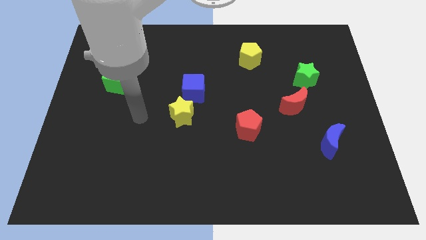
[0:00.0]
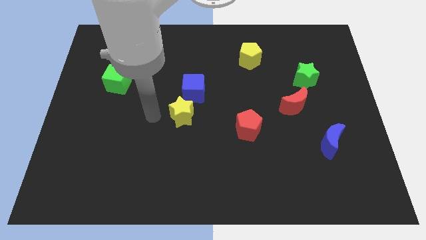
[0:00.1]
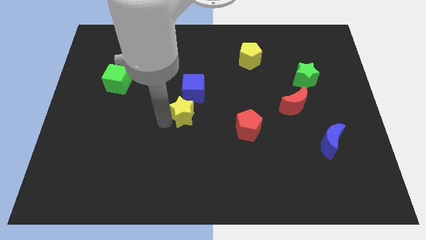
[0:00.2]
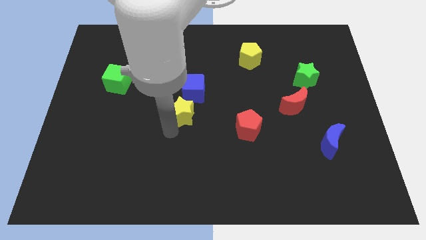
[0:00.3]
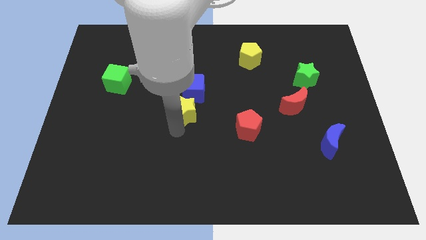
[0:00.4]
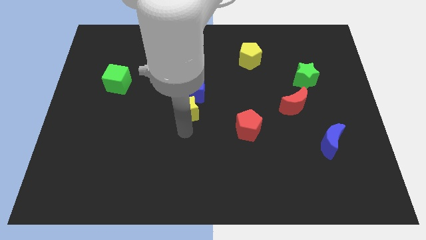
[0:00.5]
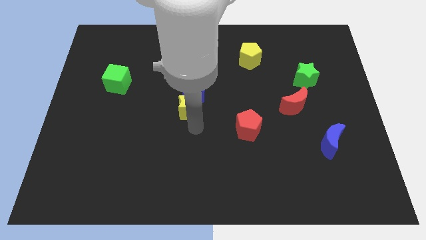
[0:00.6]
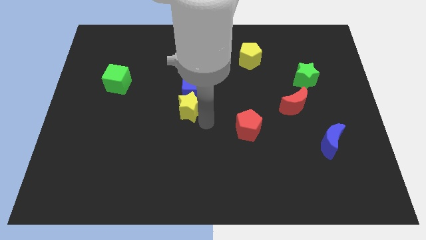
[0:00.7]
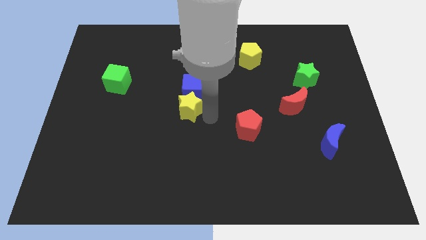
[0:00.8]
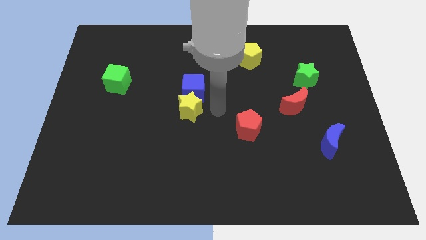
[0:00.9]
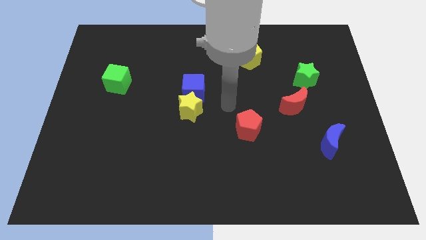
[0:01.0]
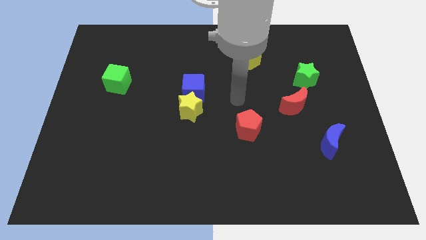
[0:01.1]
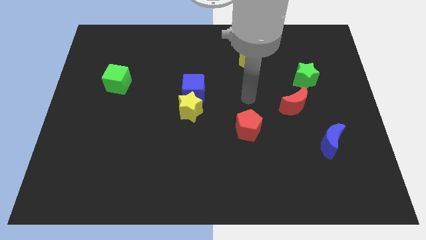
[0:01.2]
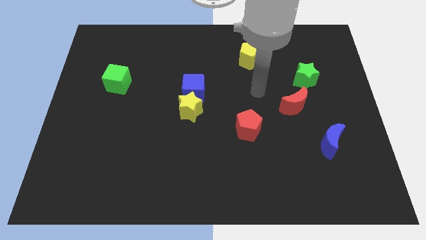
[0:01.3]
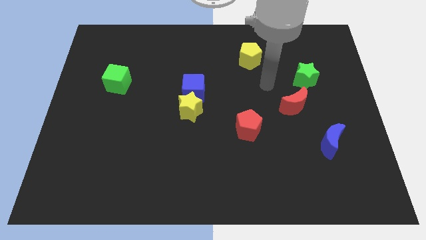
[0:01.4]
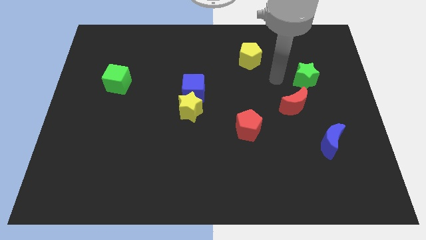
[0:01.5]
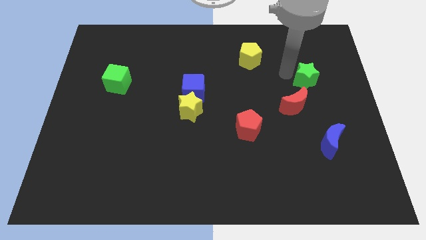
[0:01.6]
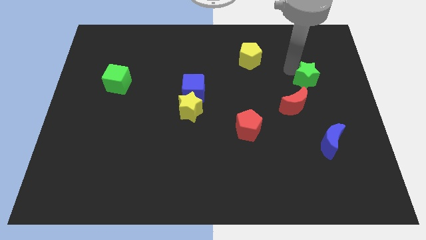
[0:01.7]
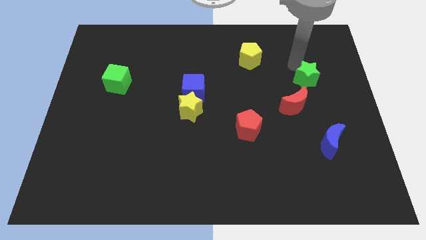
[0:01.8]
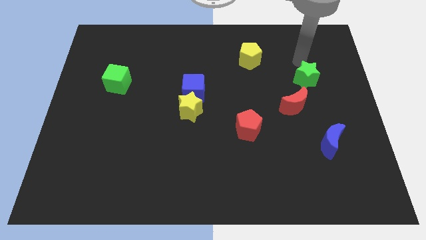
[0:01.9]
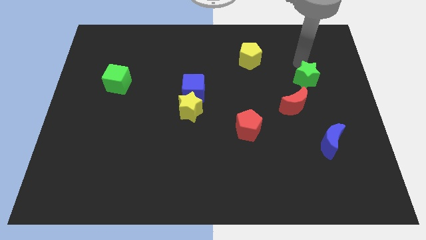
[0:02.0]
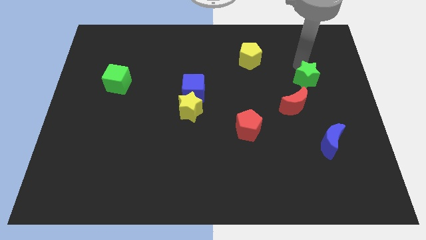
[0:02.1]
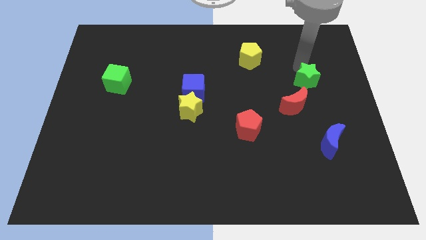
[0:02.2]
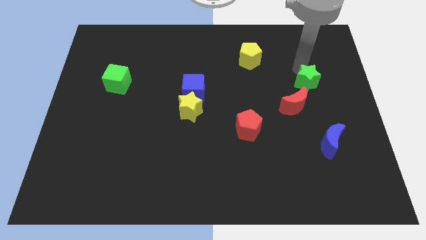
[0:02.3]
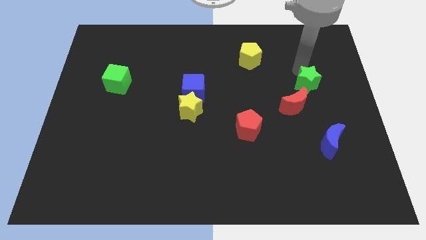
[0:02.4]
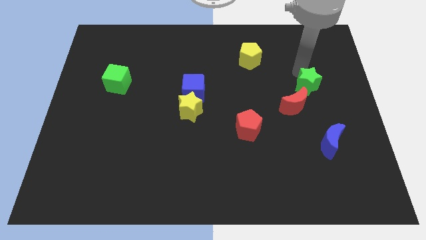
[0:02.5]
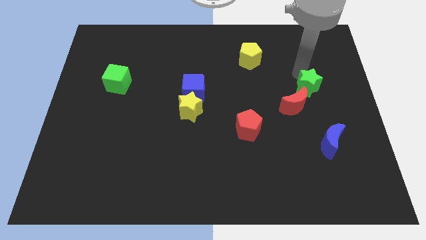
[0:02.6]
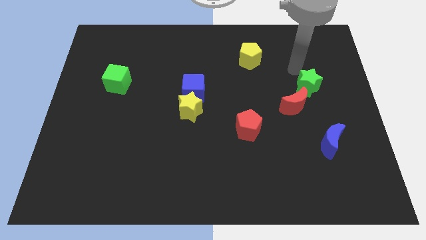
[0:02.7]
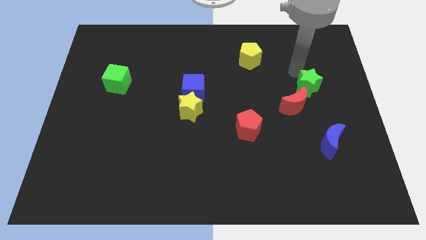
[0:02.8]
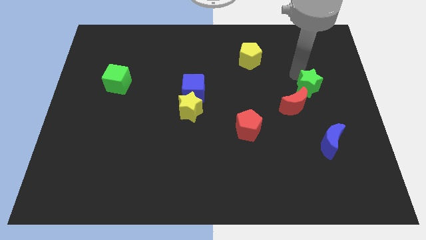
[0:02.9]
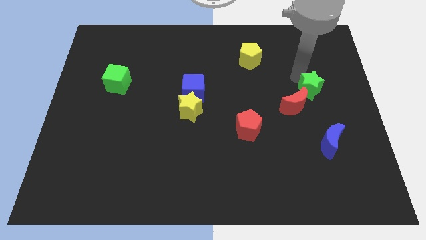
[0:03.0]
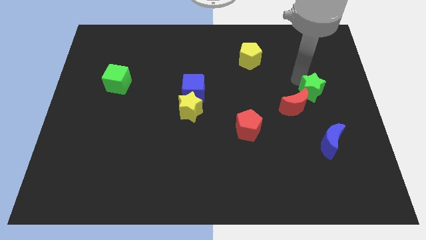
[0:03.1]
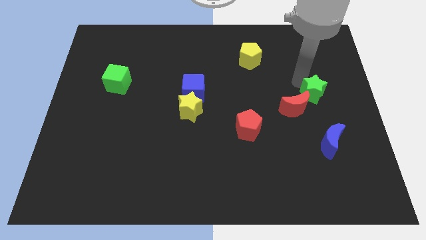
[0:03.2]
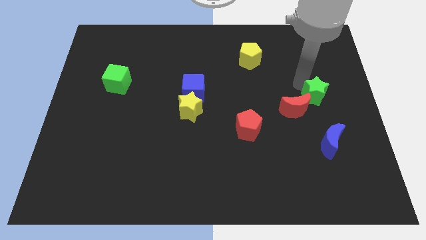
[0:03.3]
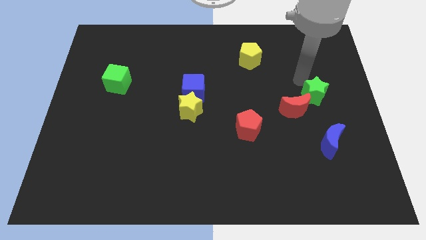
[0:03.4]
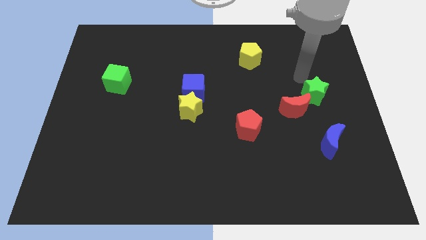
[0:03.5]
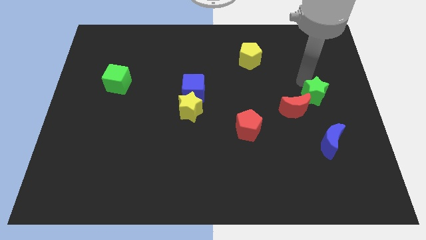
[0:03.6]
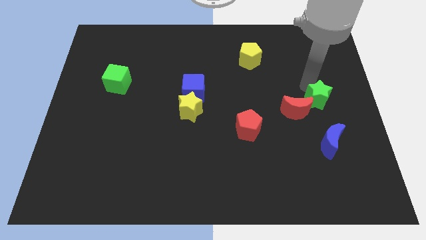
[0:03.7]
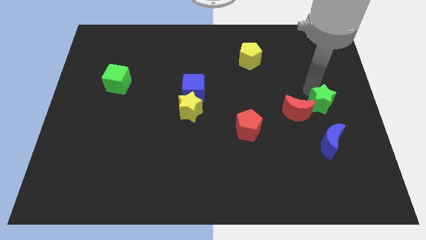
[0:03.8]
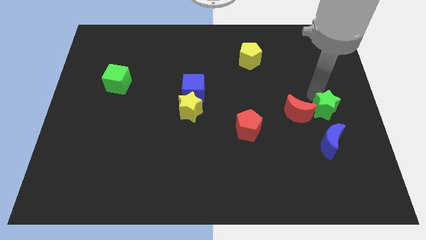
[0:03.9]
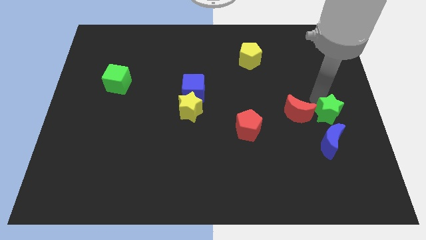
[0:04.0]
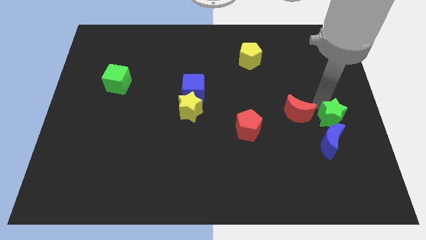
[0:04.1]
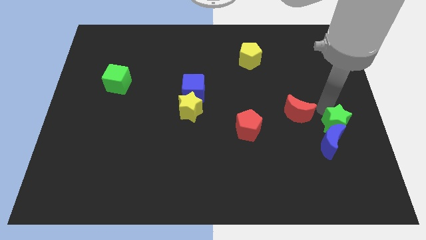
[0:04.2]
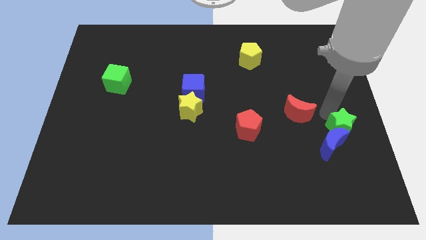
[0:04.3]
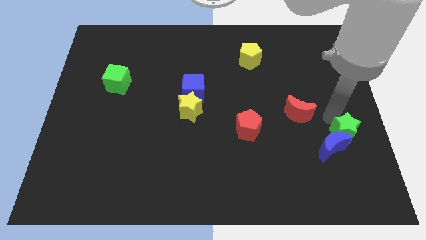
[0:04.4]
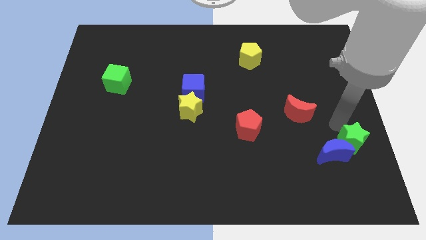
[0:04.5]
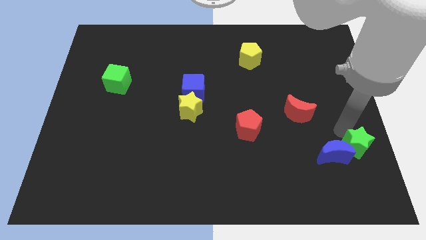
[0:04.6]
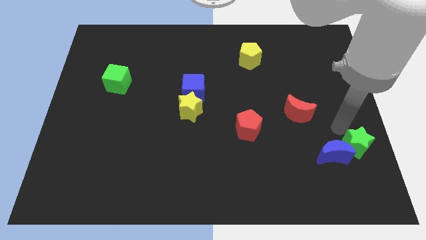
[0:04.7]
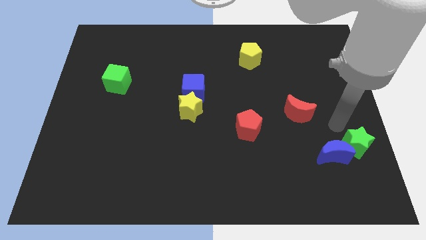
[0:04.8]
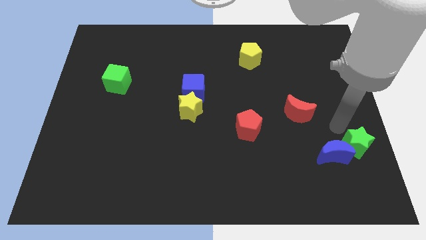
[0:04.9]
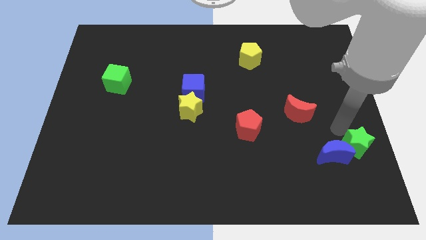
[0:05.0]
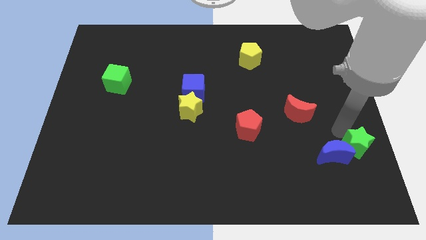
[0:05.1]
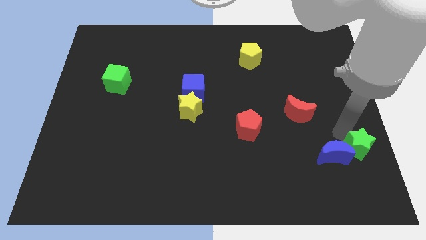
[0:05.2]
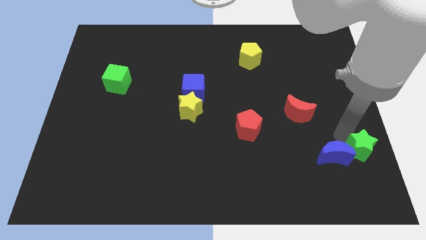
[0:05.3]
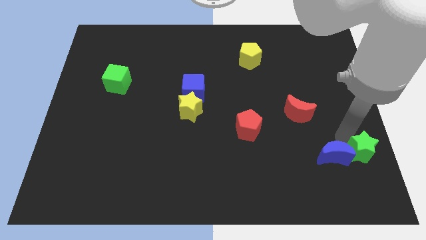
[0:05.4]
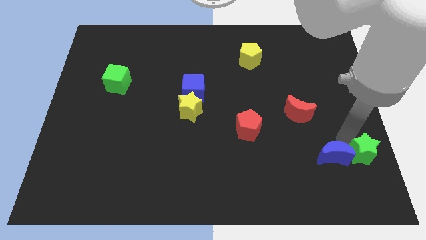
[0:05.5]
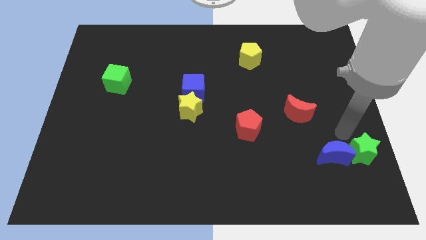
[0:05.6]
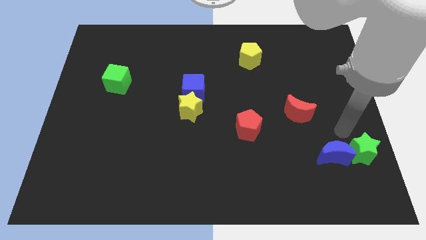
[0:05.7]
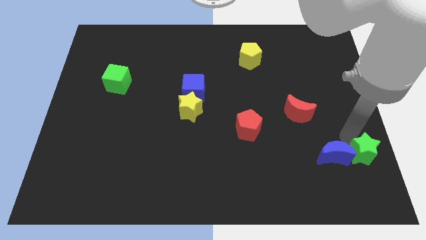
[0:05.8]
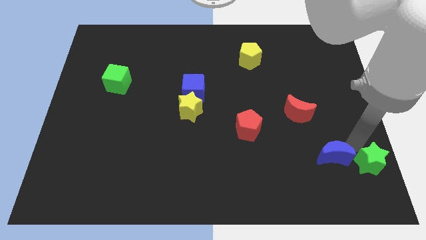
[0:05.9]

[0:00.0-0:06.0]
push the green star to the bottom right corner
